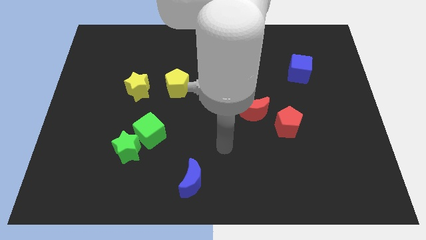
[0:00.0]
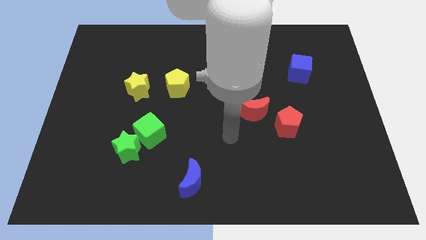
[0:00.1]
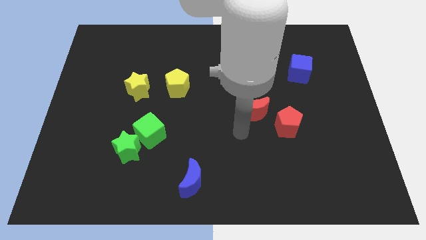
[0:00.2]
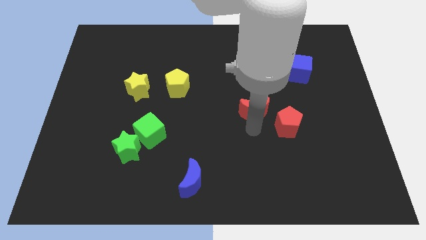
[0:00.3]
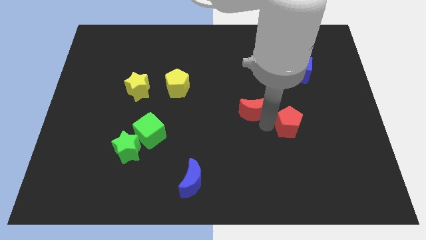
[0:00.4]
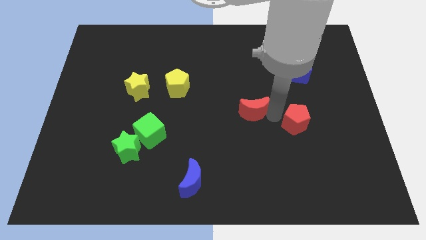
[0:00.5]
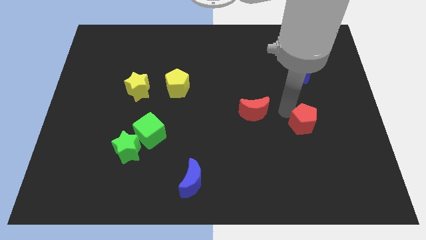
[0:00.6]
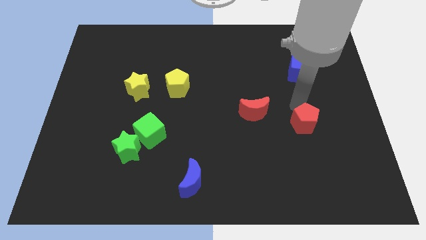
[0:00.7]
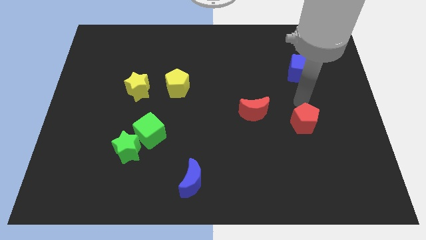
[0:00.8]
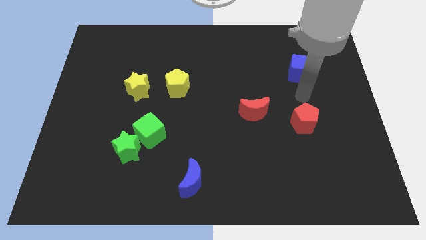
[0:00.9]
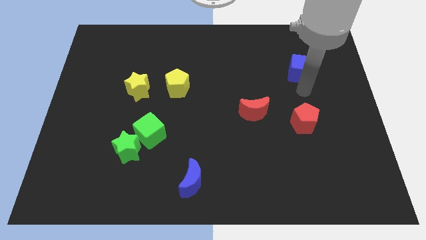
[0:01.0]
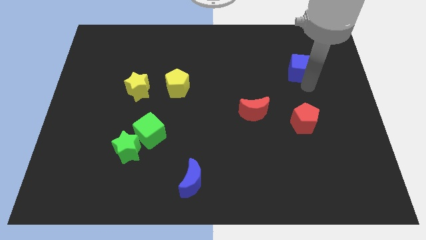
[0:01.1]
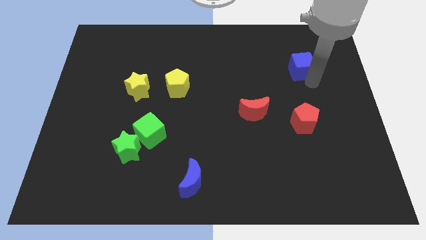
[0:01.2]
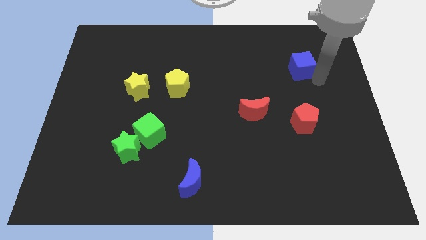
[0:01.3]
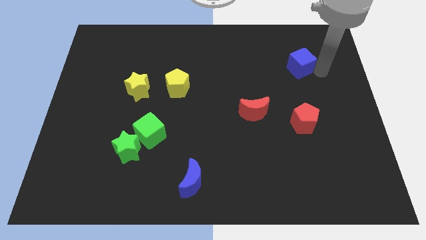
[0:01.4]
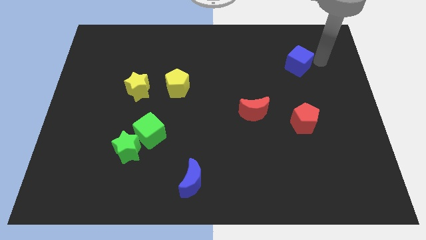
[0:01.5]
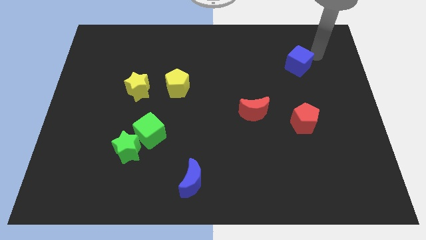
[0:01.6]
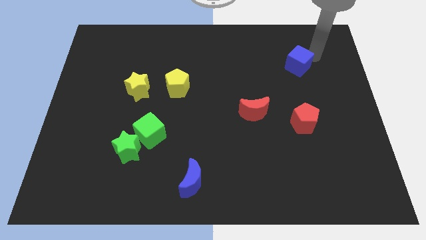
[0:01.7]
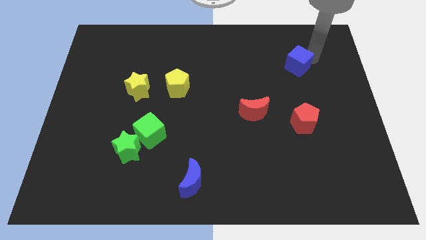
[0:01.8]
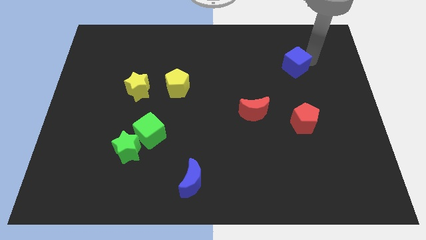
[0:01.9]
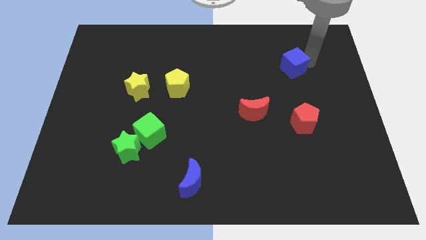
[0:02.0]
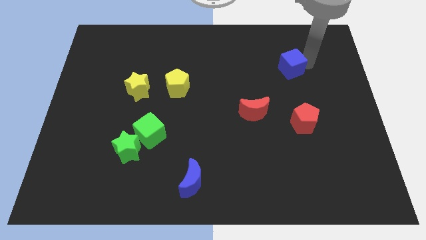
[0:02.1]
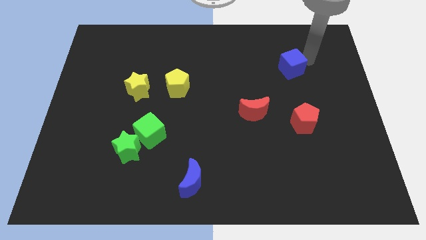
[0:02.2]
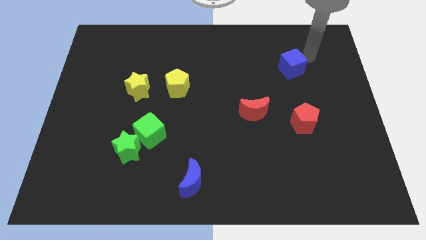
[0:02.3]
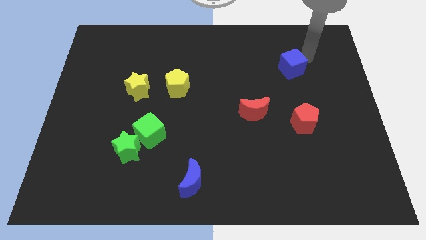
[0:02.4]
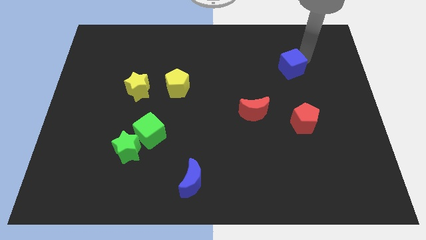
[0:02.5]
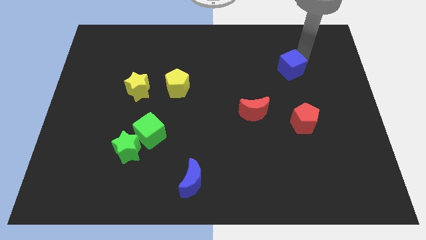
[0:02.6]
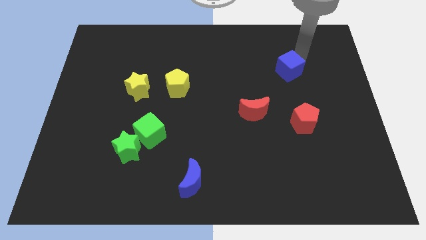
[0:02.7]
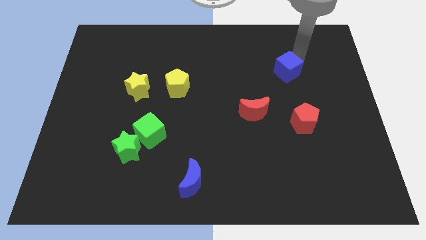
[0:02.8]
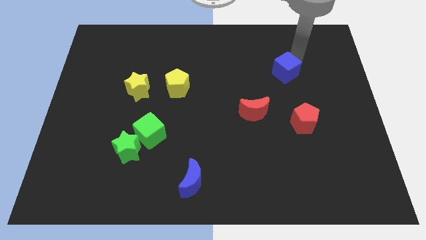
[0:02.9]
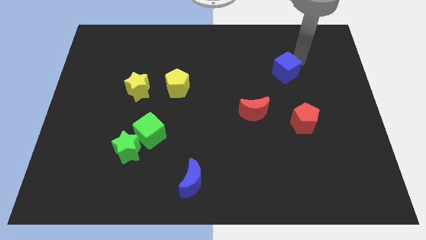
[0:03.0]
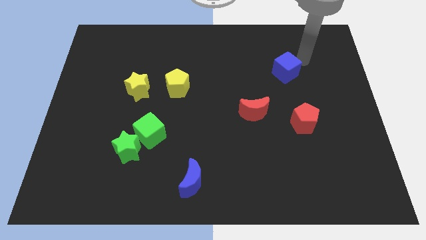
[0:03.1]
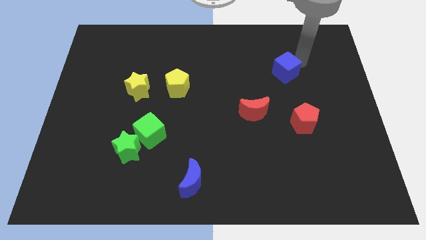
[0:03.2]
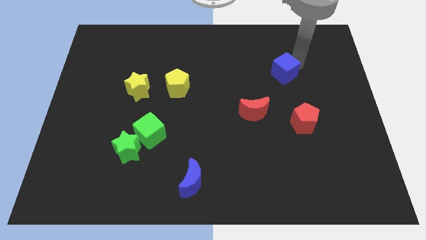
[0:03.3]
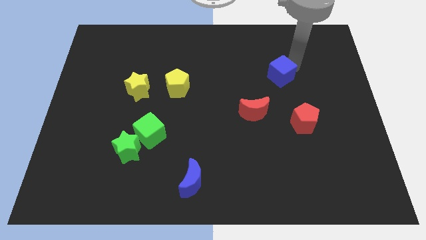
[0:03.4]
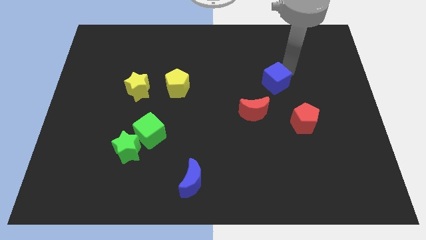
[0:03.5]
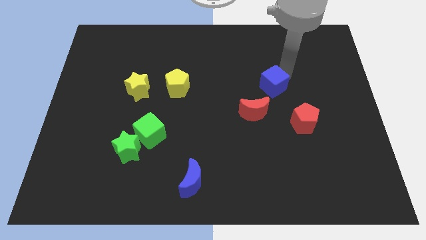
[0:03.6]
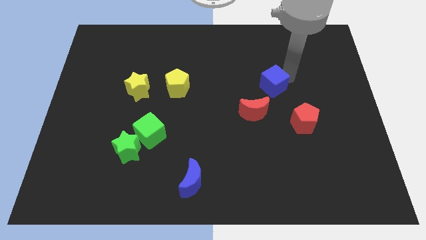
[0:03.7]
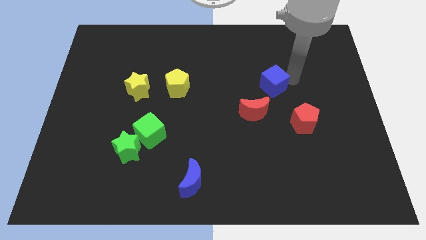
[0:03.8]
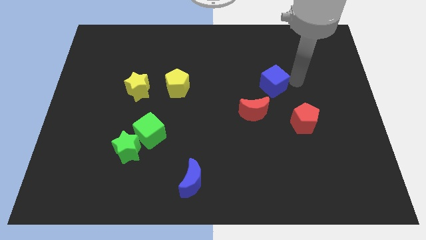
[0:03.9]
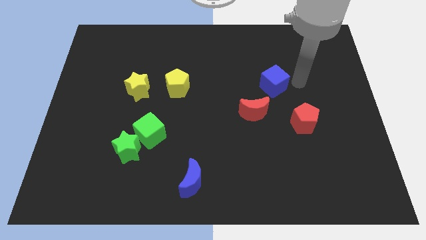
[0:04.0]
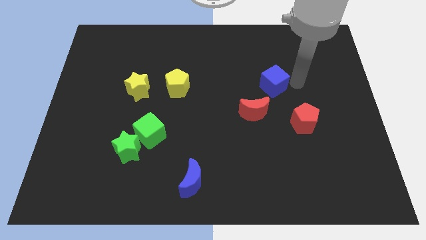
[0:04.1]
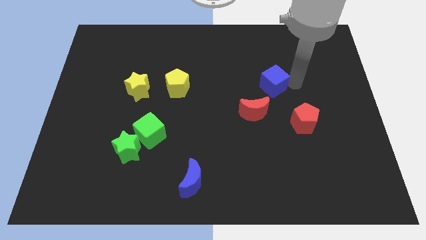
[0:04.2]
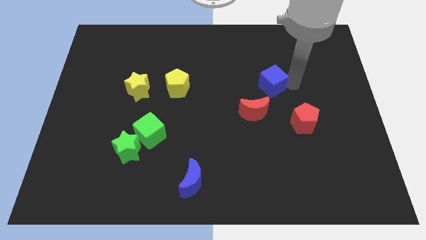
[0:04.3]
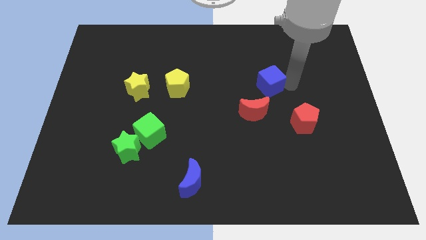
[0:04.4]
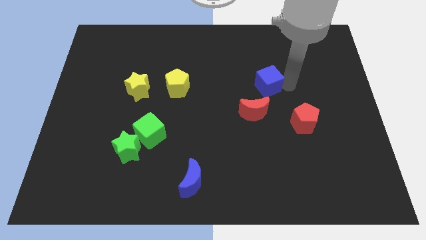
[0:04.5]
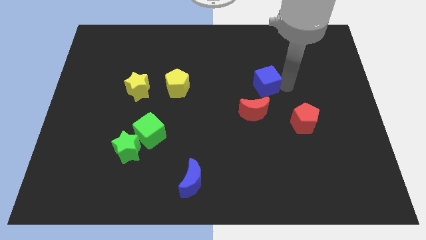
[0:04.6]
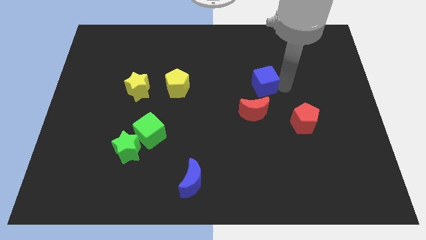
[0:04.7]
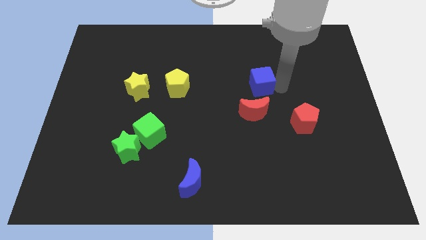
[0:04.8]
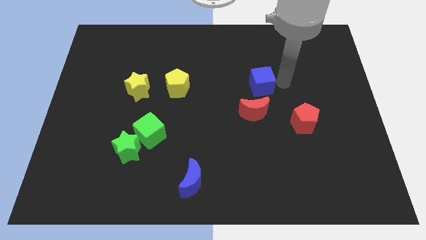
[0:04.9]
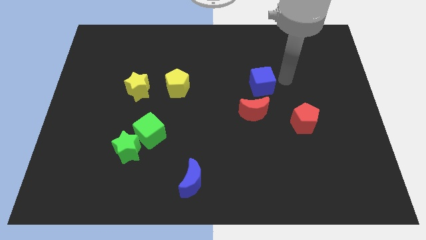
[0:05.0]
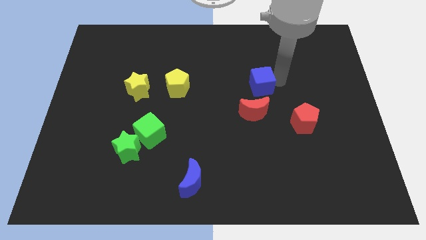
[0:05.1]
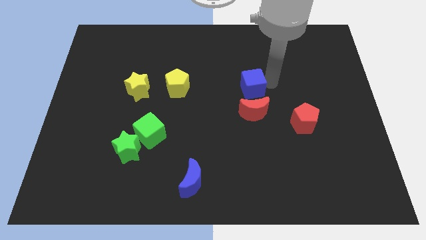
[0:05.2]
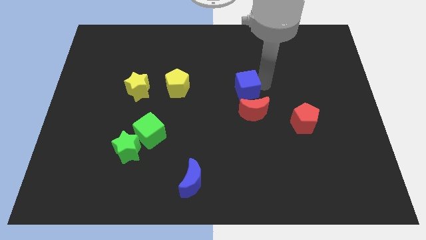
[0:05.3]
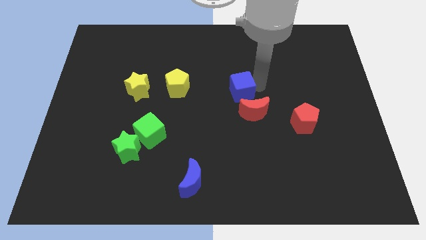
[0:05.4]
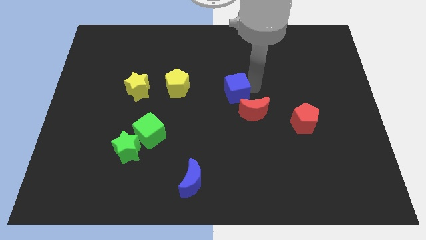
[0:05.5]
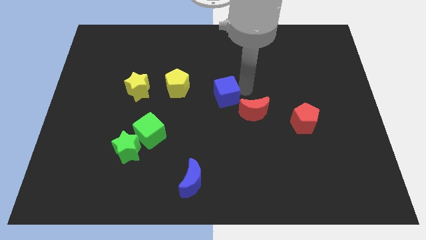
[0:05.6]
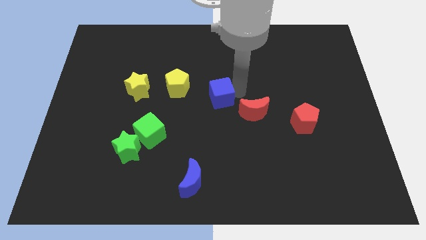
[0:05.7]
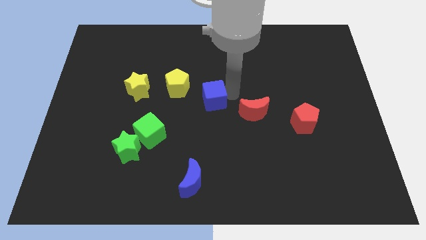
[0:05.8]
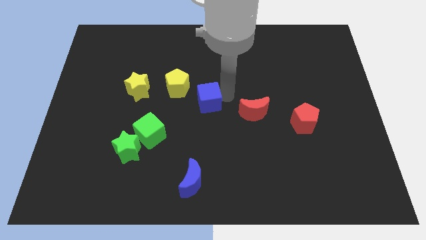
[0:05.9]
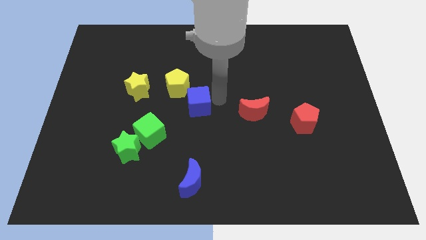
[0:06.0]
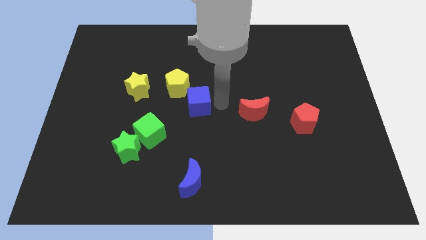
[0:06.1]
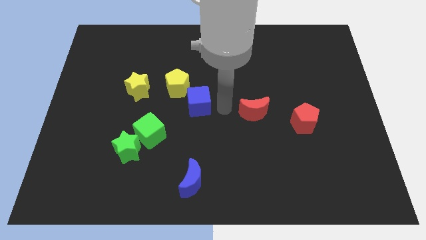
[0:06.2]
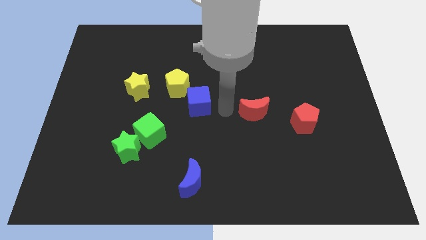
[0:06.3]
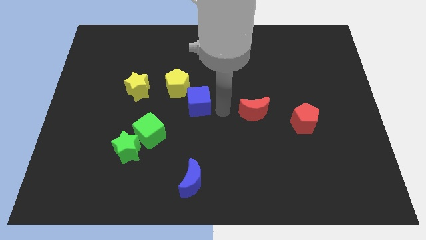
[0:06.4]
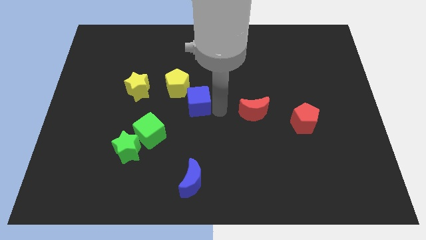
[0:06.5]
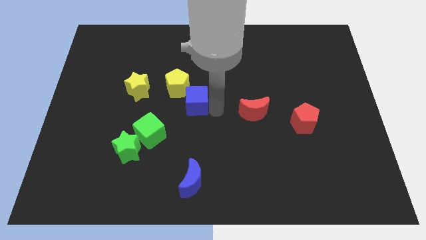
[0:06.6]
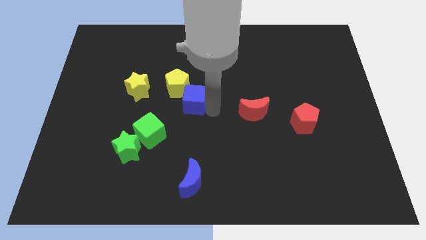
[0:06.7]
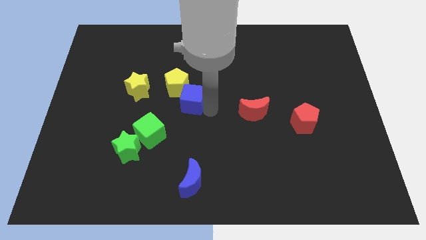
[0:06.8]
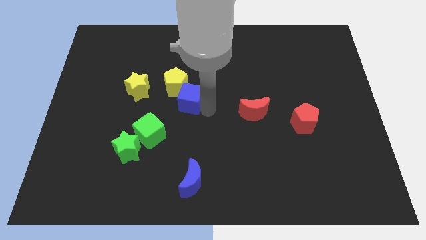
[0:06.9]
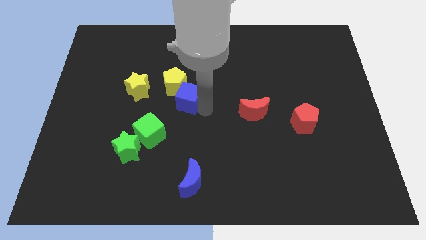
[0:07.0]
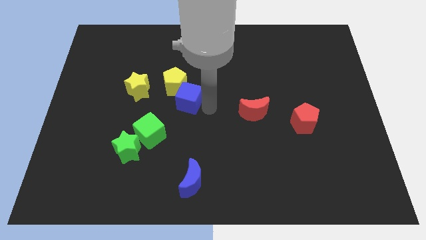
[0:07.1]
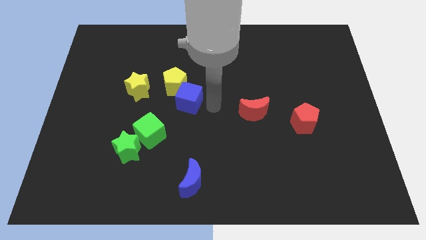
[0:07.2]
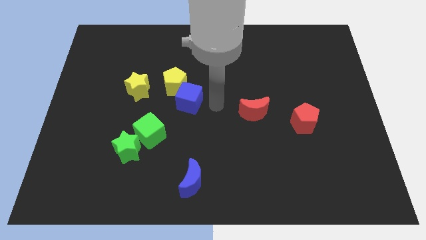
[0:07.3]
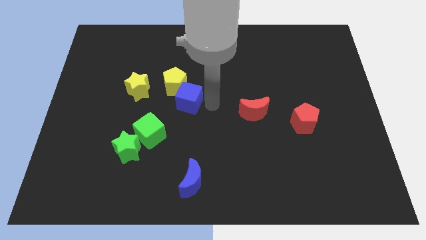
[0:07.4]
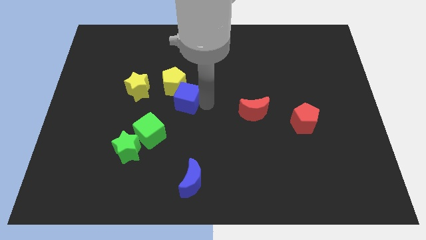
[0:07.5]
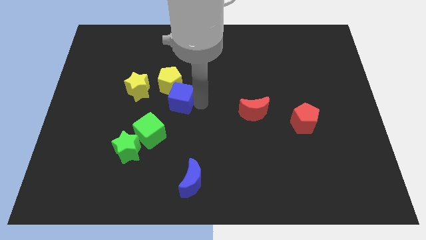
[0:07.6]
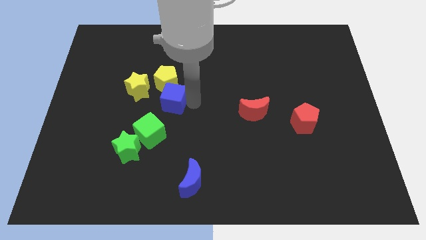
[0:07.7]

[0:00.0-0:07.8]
push the blue cube to the top of the green cube
